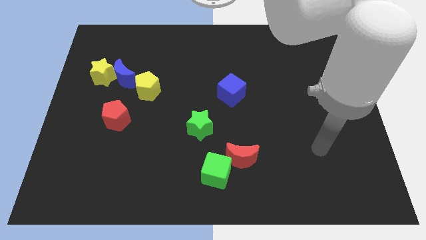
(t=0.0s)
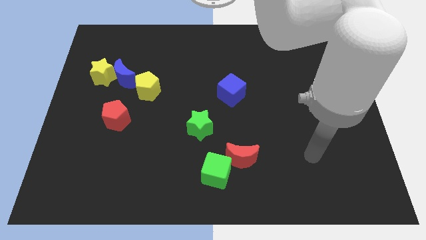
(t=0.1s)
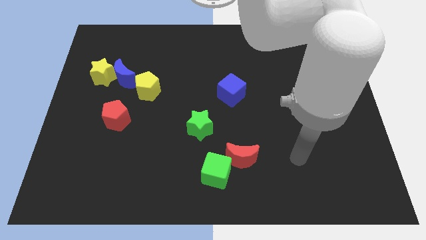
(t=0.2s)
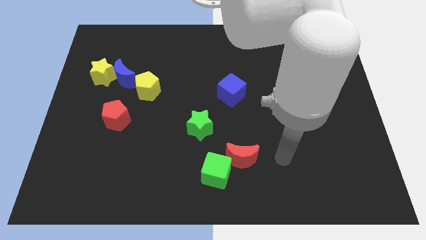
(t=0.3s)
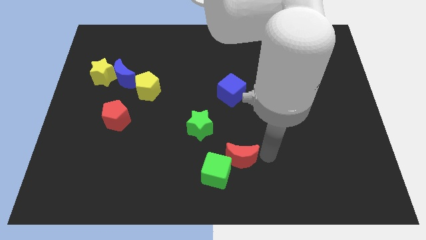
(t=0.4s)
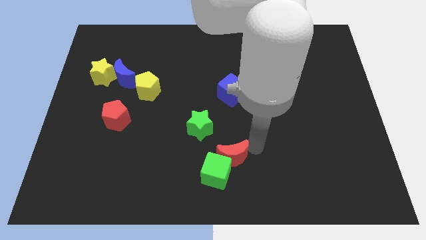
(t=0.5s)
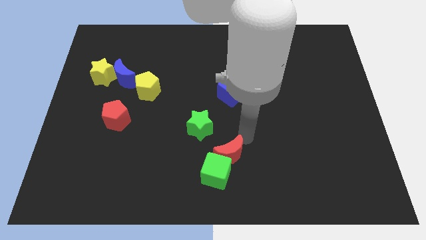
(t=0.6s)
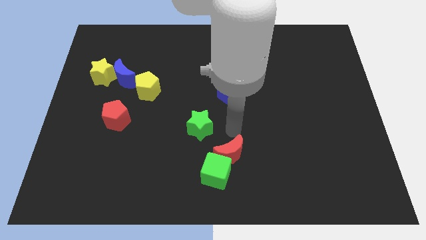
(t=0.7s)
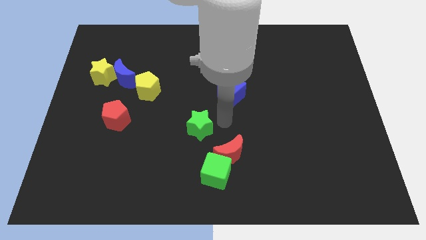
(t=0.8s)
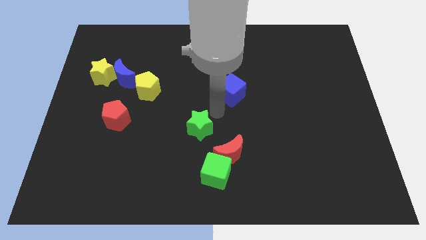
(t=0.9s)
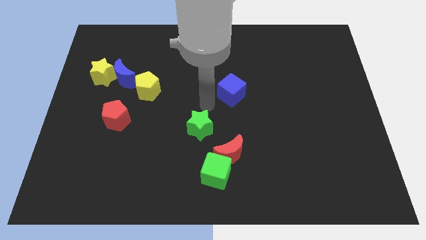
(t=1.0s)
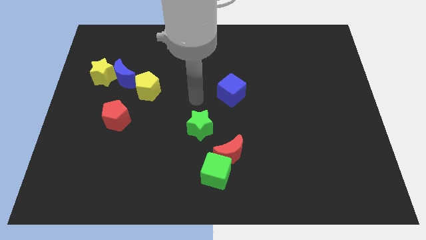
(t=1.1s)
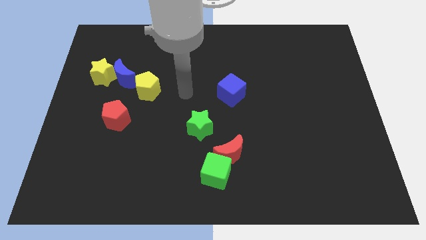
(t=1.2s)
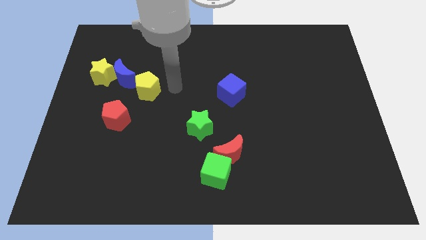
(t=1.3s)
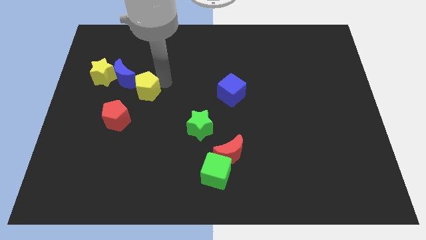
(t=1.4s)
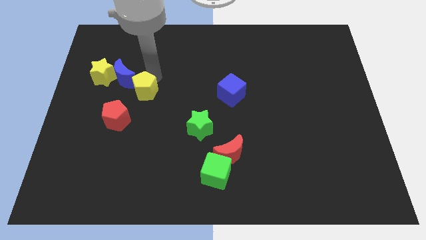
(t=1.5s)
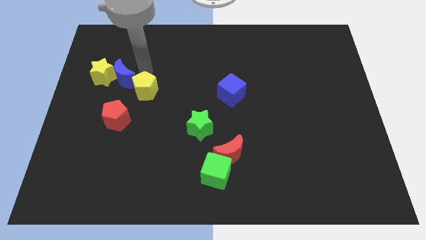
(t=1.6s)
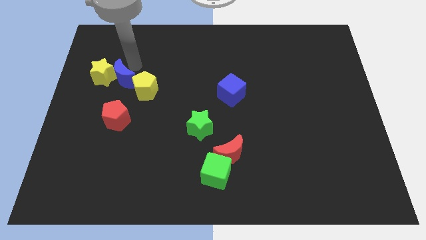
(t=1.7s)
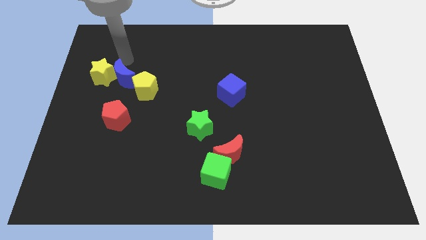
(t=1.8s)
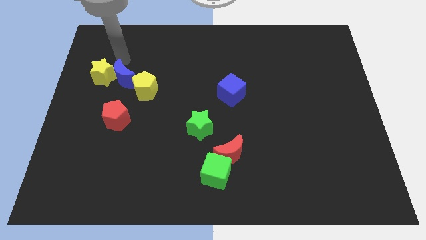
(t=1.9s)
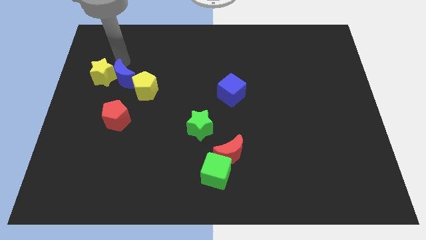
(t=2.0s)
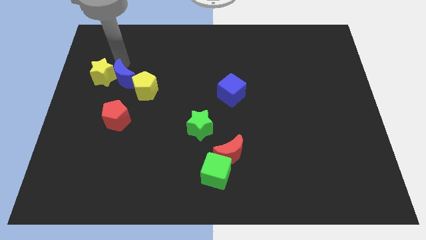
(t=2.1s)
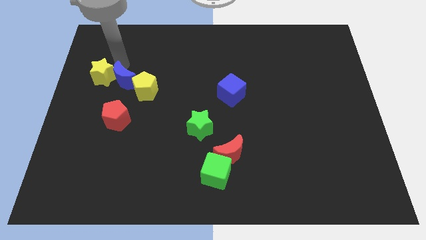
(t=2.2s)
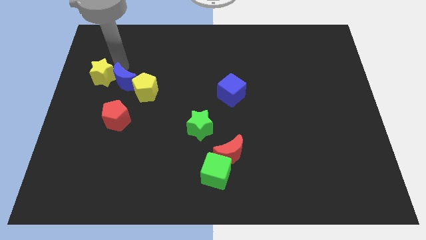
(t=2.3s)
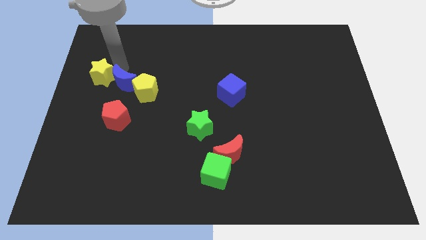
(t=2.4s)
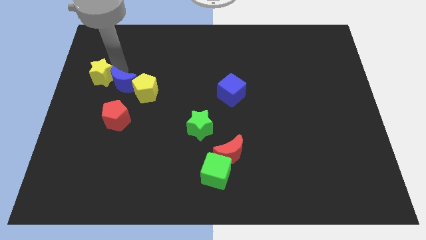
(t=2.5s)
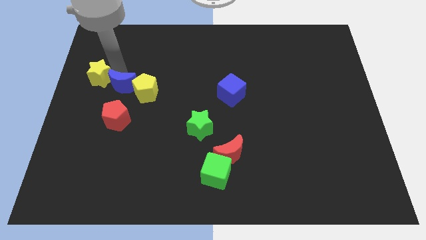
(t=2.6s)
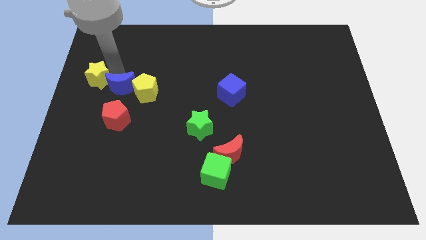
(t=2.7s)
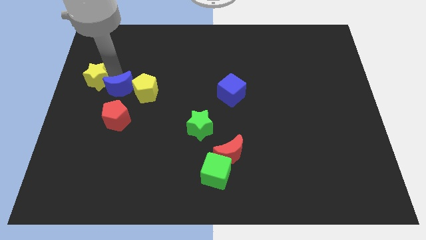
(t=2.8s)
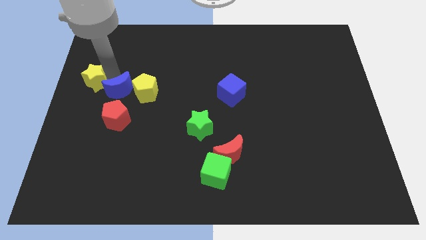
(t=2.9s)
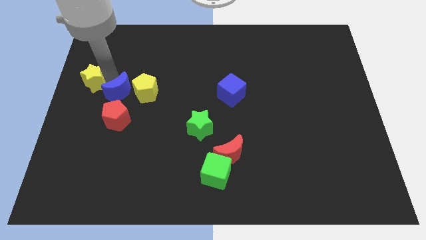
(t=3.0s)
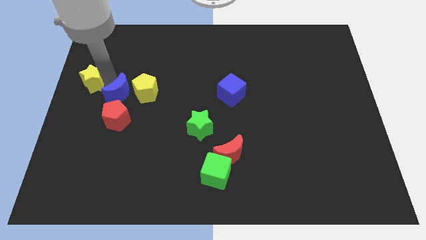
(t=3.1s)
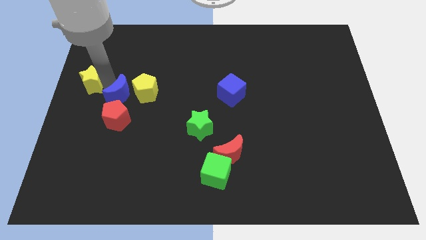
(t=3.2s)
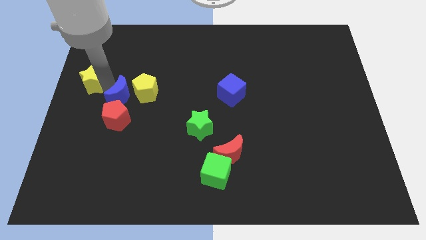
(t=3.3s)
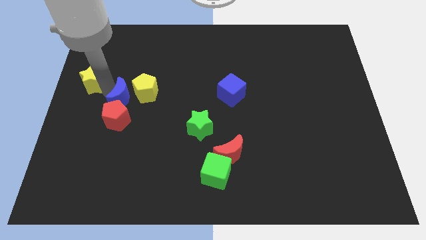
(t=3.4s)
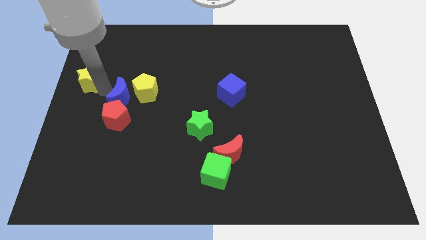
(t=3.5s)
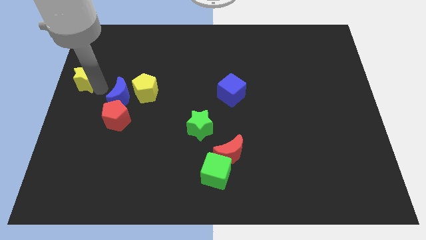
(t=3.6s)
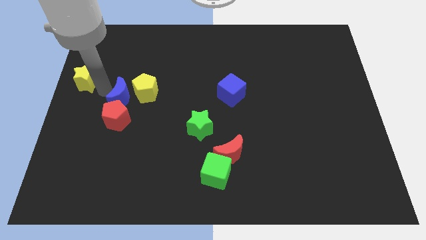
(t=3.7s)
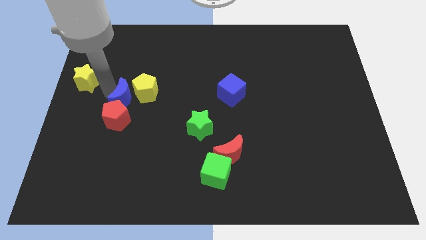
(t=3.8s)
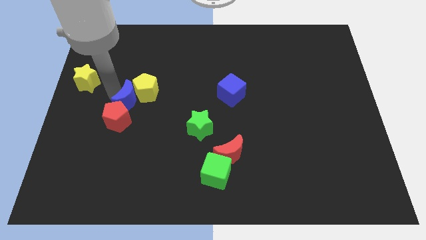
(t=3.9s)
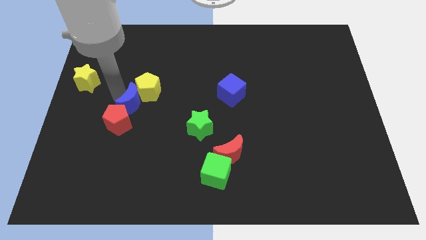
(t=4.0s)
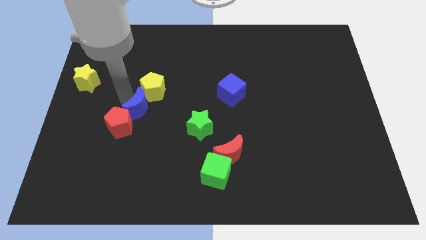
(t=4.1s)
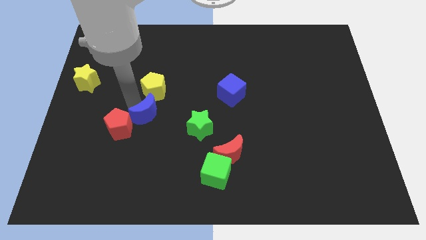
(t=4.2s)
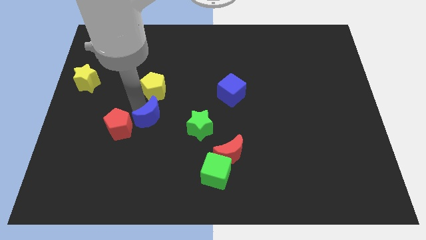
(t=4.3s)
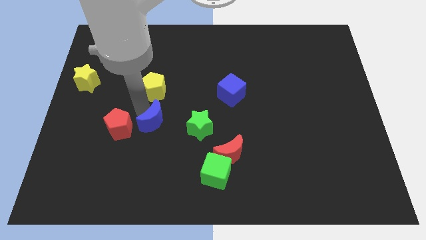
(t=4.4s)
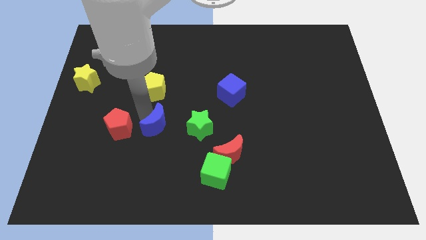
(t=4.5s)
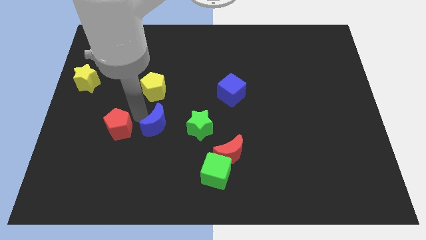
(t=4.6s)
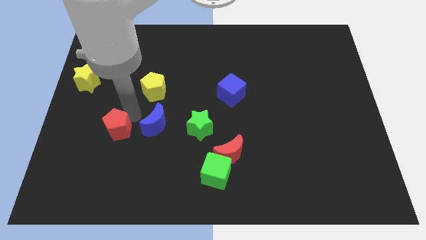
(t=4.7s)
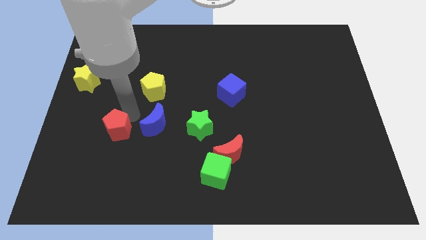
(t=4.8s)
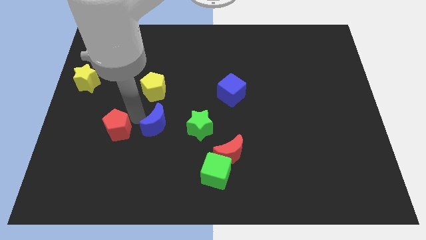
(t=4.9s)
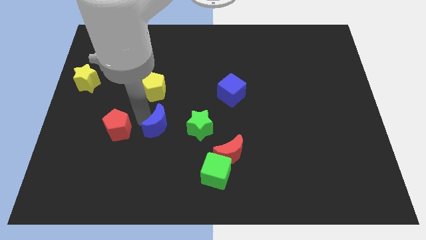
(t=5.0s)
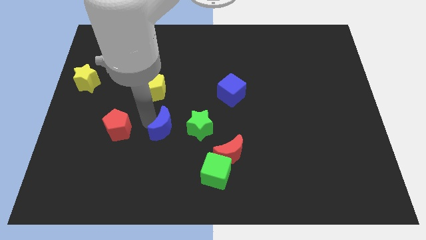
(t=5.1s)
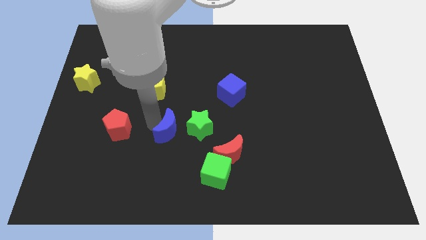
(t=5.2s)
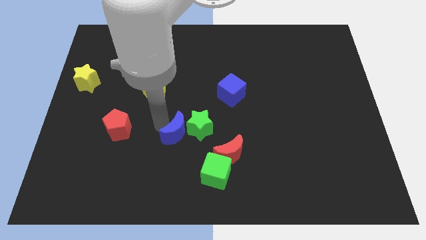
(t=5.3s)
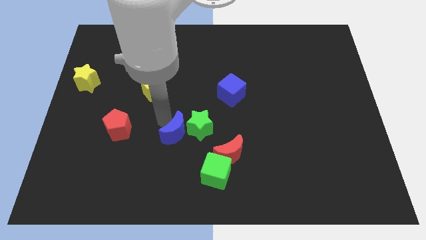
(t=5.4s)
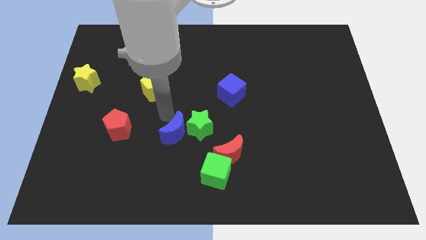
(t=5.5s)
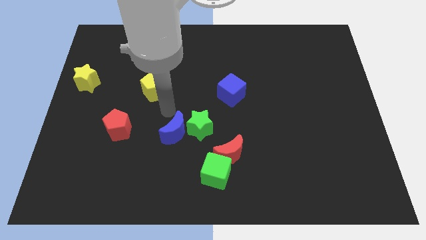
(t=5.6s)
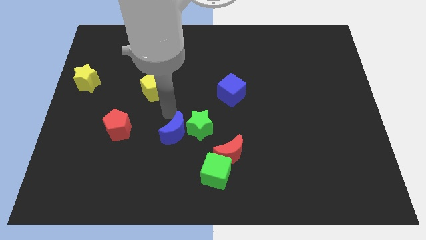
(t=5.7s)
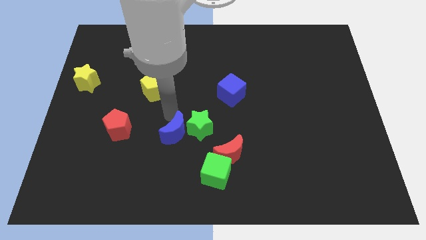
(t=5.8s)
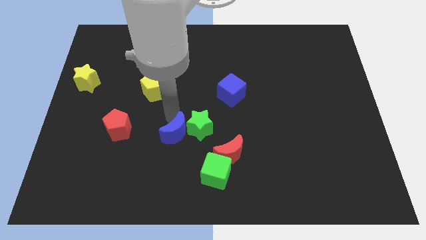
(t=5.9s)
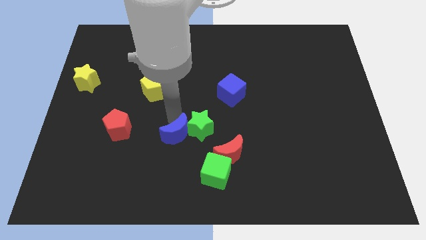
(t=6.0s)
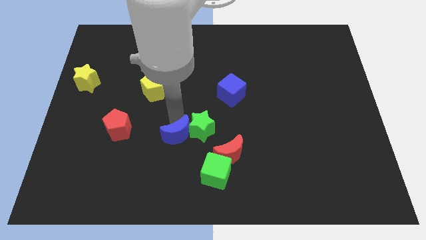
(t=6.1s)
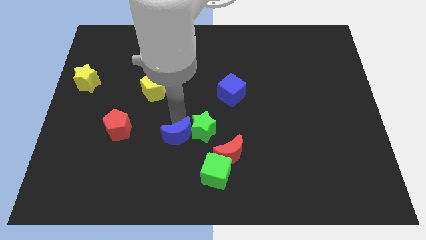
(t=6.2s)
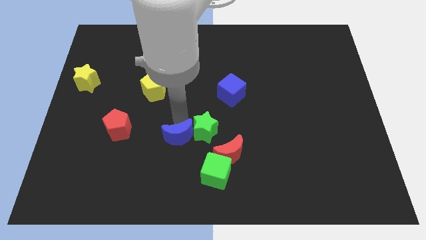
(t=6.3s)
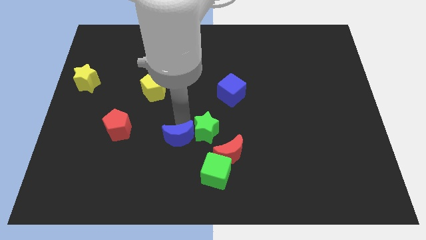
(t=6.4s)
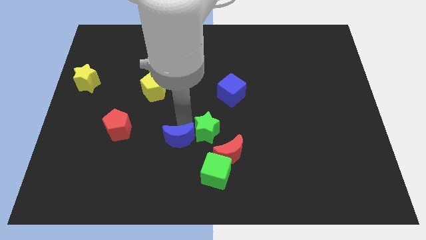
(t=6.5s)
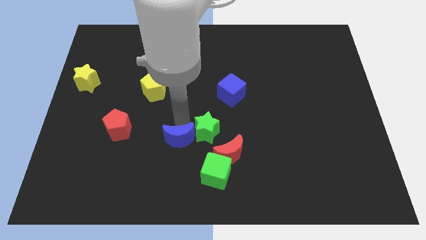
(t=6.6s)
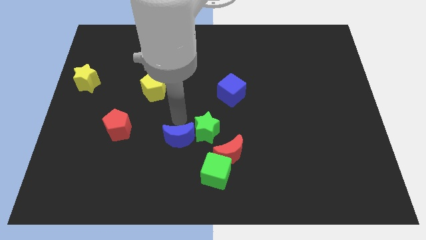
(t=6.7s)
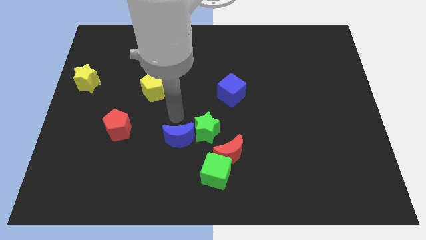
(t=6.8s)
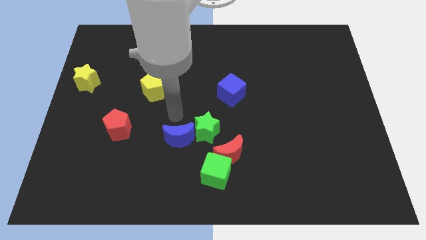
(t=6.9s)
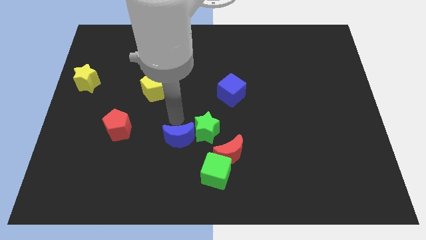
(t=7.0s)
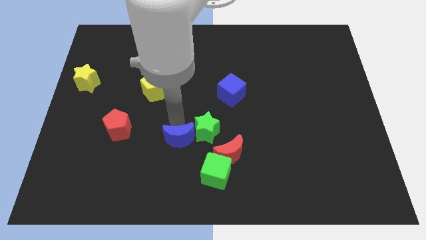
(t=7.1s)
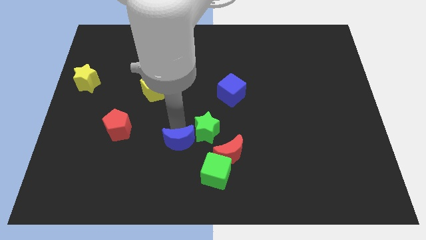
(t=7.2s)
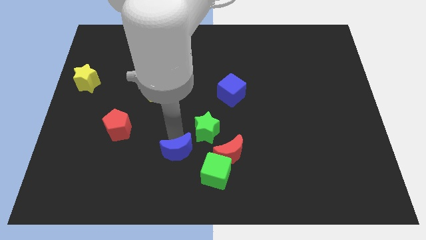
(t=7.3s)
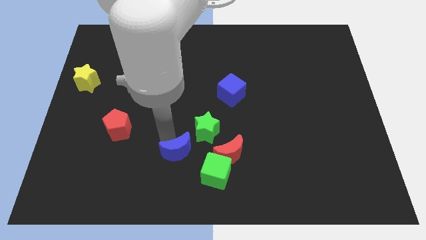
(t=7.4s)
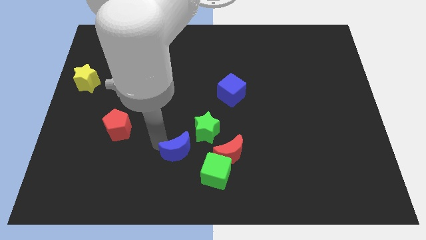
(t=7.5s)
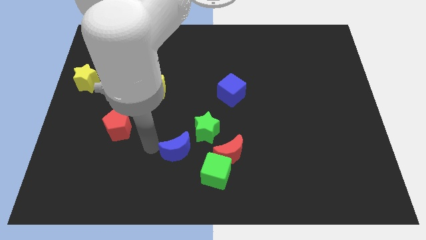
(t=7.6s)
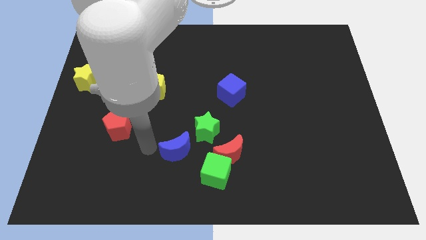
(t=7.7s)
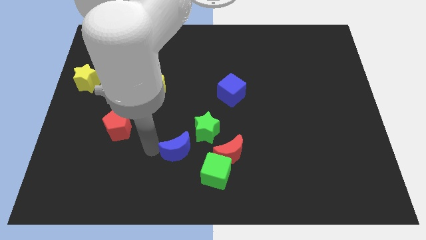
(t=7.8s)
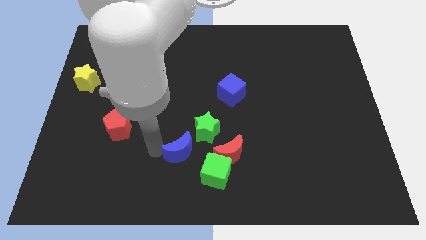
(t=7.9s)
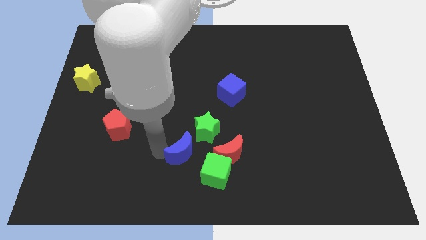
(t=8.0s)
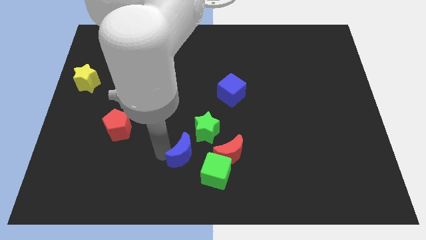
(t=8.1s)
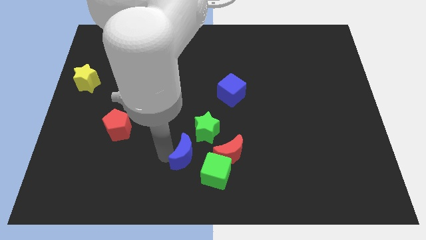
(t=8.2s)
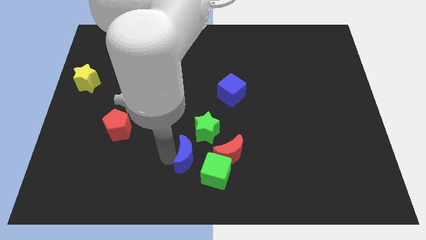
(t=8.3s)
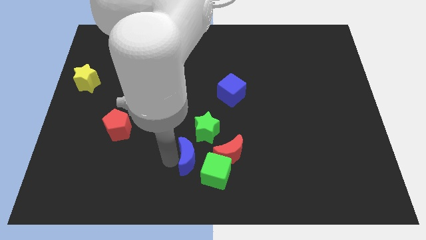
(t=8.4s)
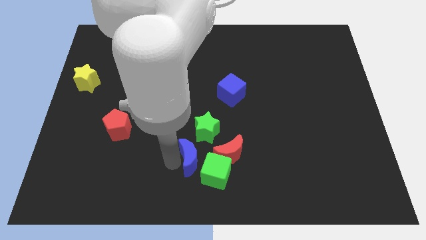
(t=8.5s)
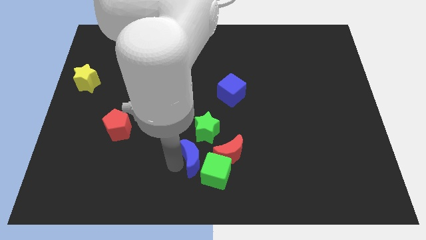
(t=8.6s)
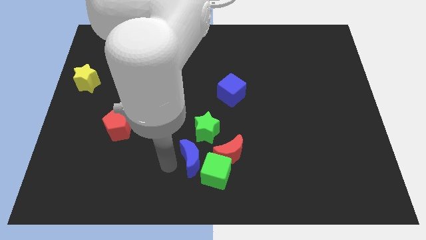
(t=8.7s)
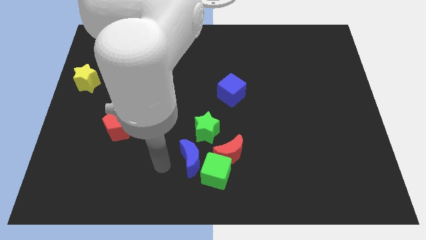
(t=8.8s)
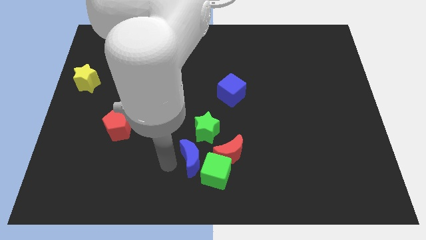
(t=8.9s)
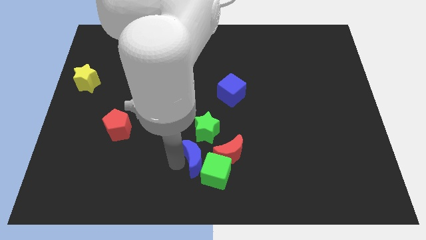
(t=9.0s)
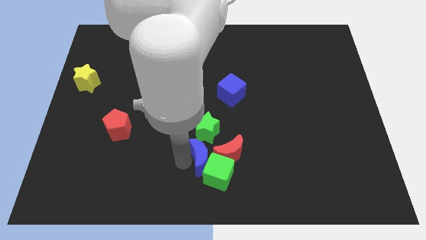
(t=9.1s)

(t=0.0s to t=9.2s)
put the blue moon close to the red moon
